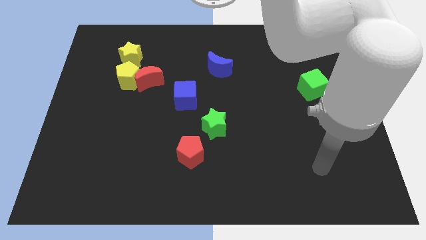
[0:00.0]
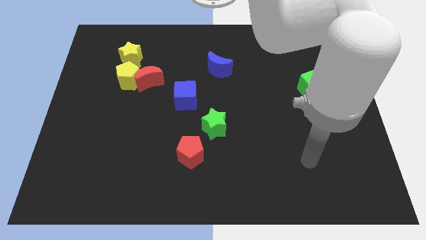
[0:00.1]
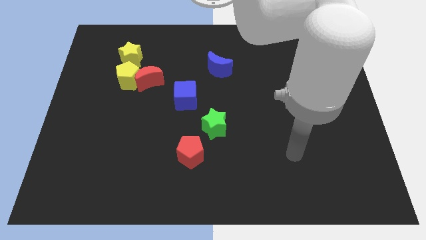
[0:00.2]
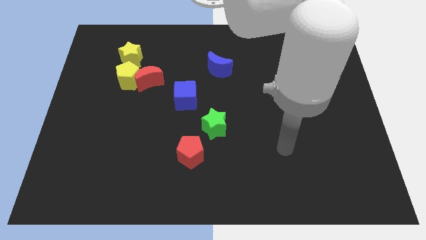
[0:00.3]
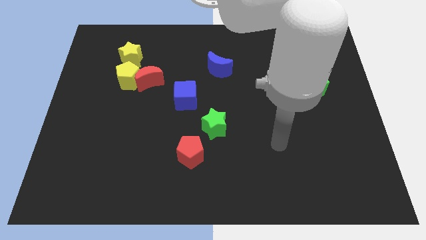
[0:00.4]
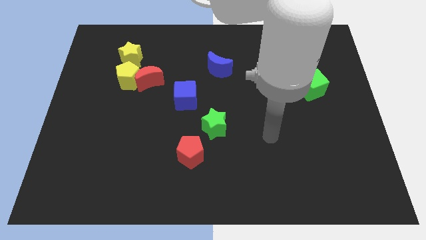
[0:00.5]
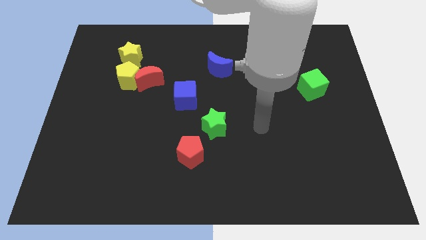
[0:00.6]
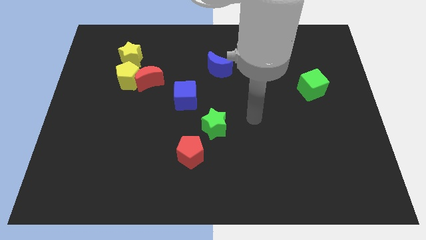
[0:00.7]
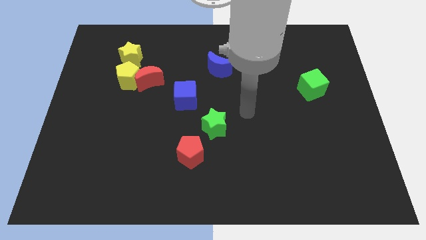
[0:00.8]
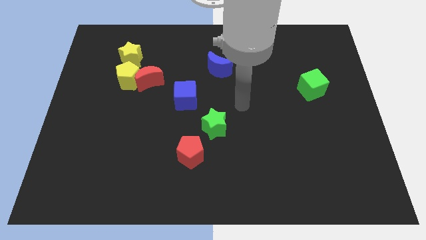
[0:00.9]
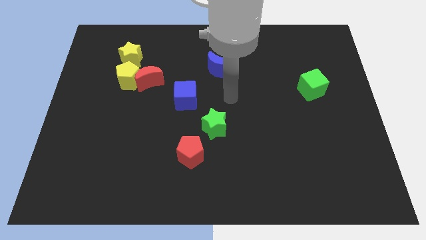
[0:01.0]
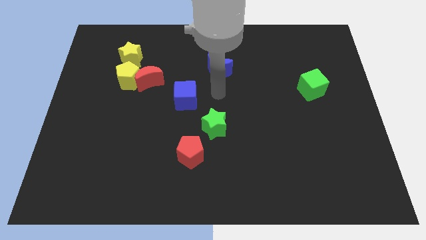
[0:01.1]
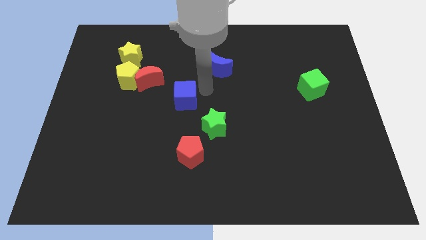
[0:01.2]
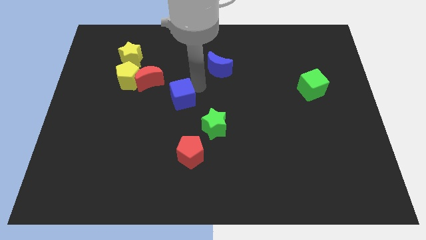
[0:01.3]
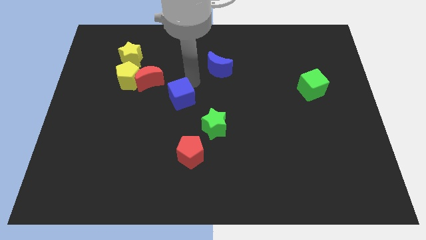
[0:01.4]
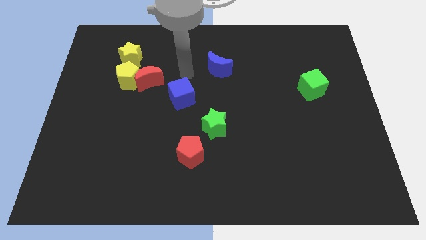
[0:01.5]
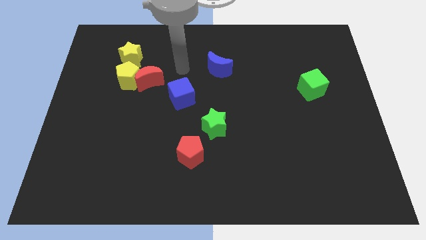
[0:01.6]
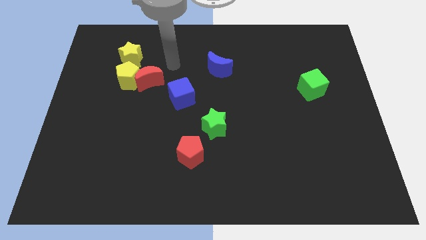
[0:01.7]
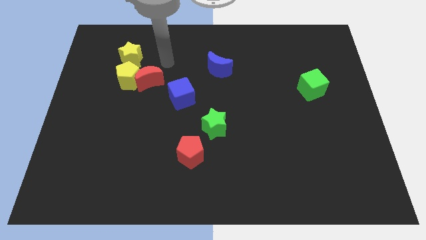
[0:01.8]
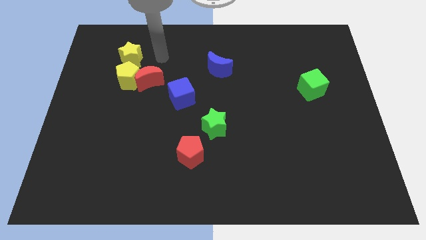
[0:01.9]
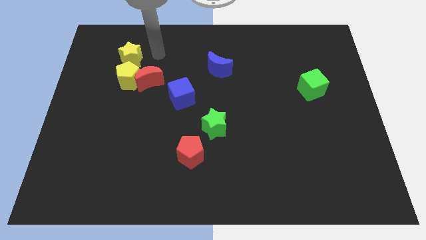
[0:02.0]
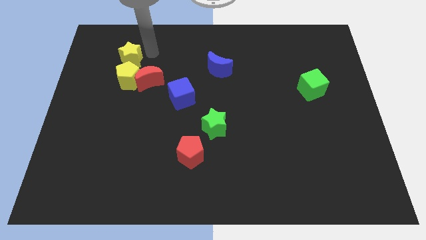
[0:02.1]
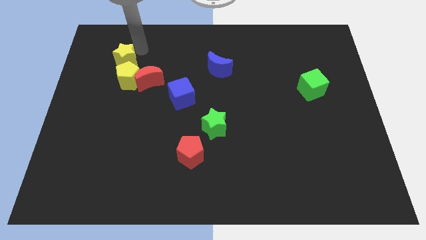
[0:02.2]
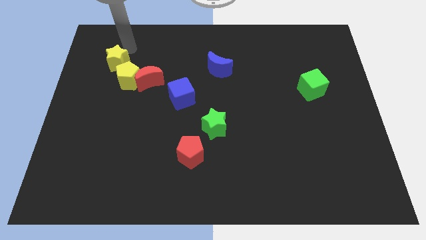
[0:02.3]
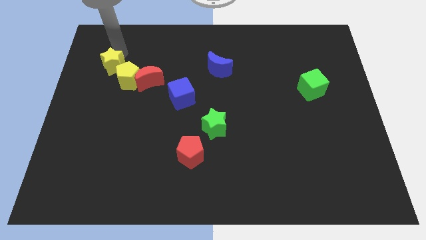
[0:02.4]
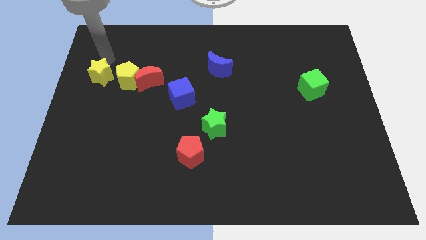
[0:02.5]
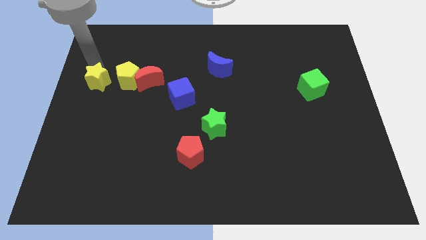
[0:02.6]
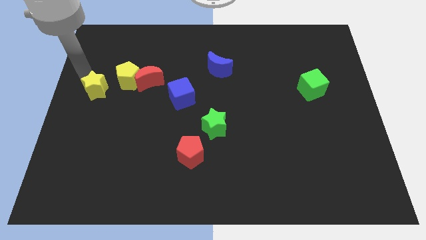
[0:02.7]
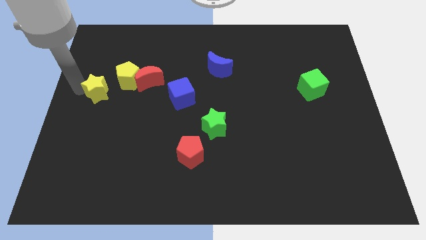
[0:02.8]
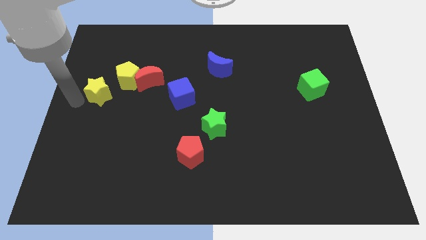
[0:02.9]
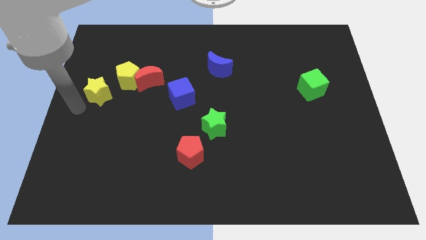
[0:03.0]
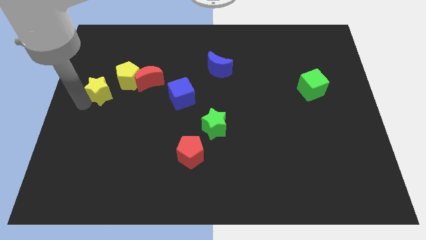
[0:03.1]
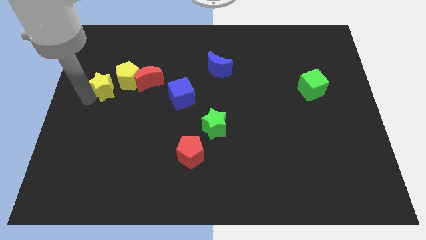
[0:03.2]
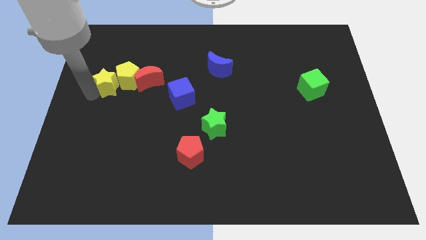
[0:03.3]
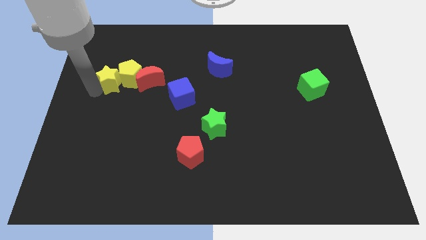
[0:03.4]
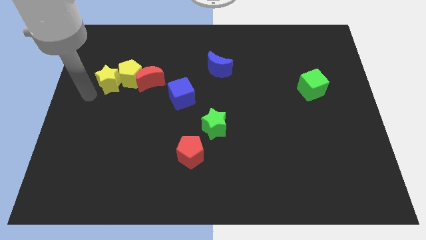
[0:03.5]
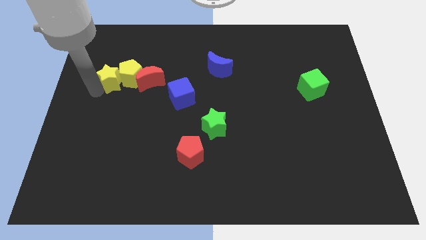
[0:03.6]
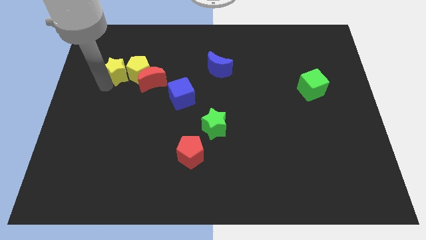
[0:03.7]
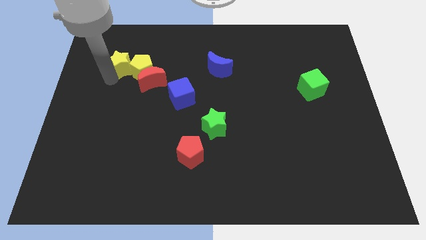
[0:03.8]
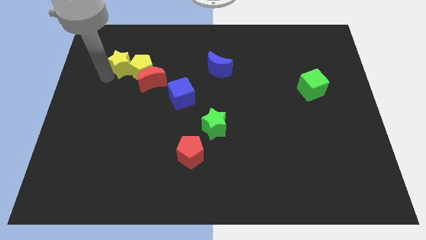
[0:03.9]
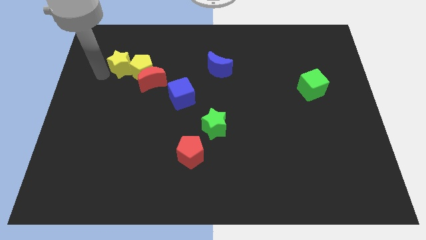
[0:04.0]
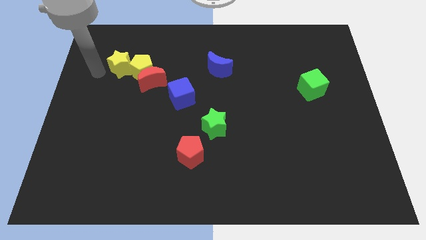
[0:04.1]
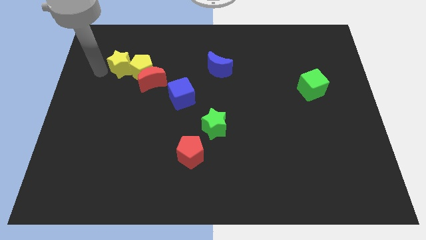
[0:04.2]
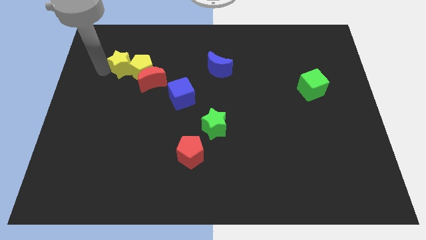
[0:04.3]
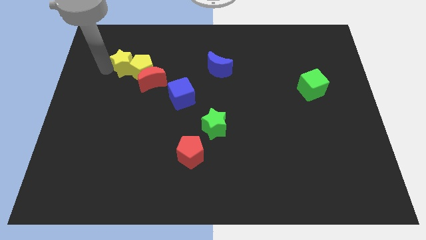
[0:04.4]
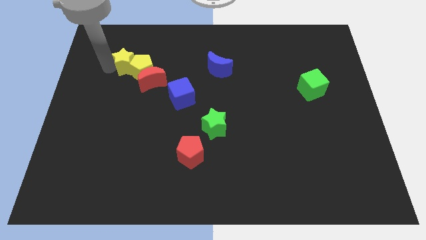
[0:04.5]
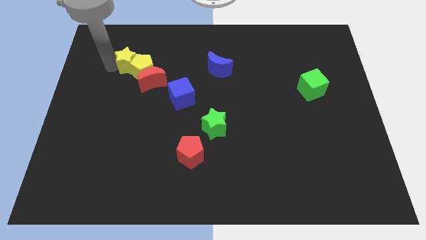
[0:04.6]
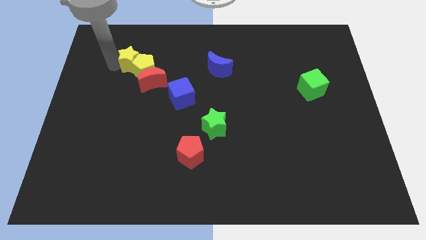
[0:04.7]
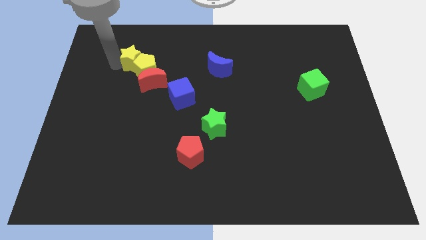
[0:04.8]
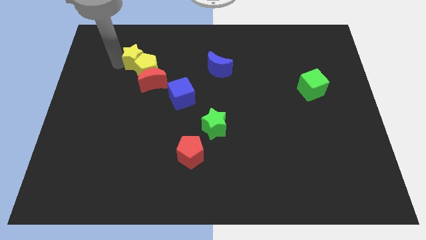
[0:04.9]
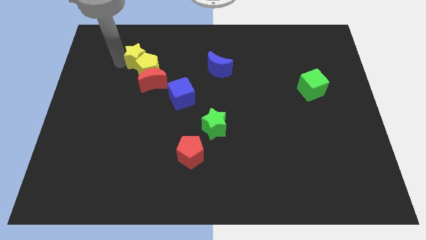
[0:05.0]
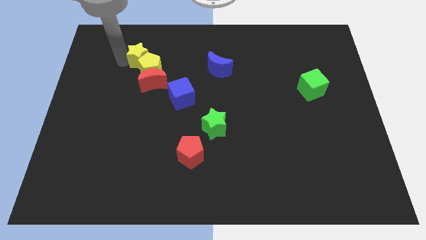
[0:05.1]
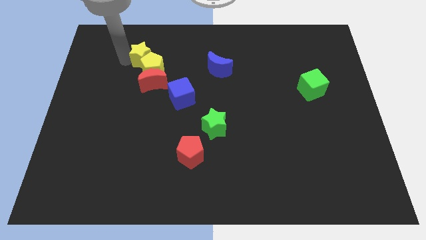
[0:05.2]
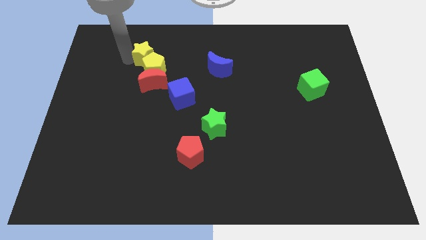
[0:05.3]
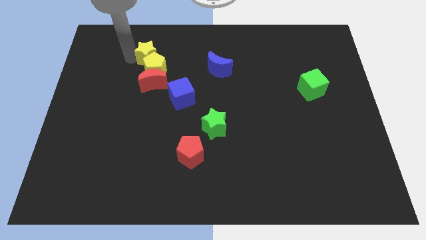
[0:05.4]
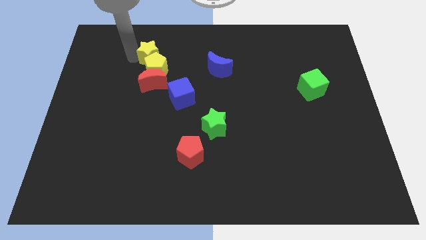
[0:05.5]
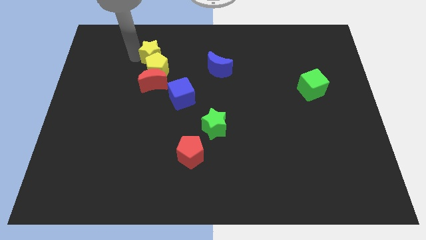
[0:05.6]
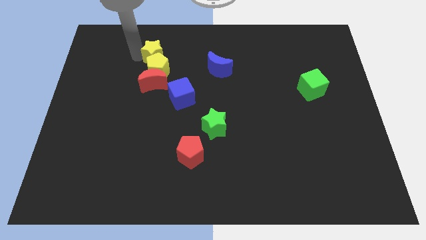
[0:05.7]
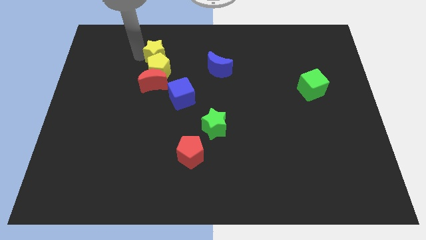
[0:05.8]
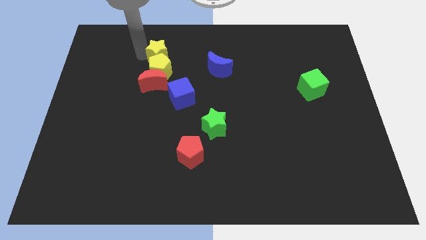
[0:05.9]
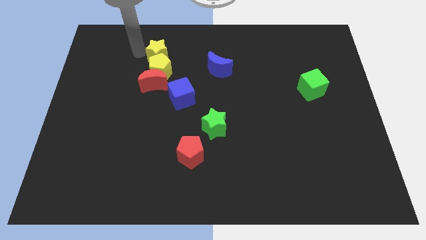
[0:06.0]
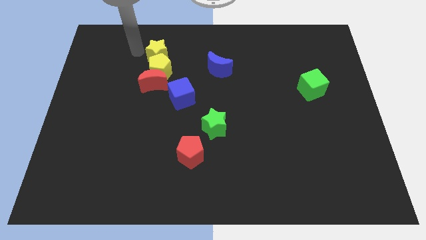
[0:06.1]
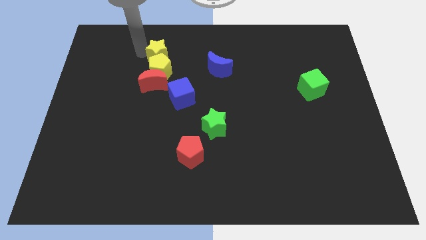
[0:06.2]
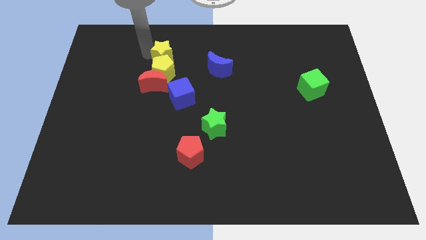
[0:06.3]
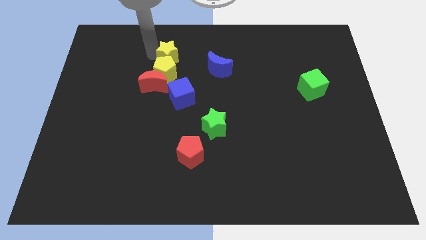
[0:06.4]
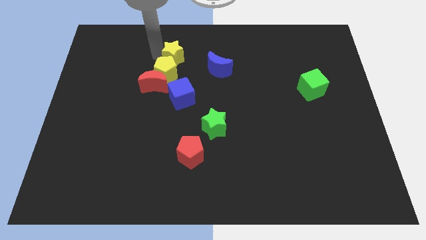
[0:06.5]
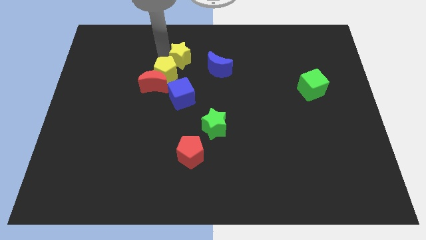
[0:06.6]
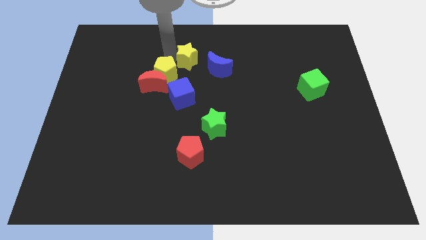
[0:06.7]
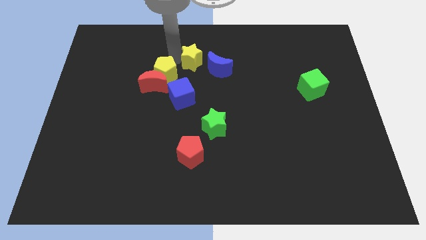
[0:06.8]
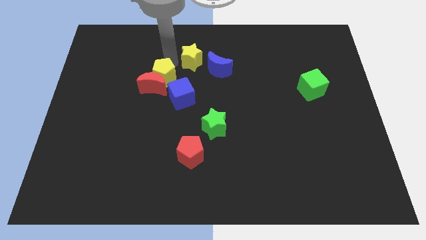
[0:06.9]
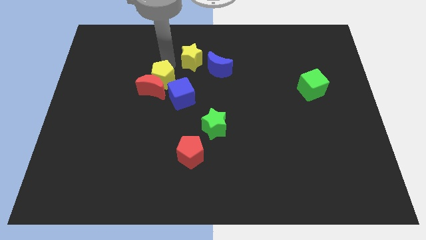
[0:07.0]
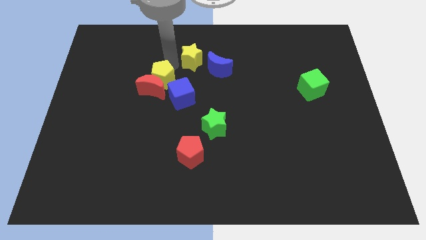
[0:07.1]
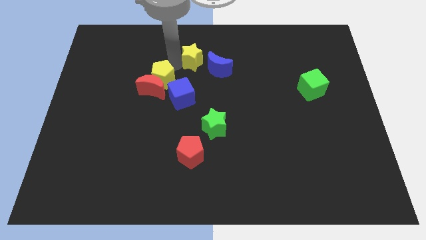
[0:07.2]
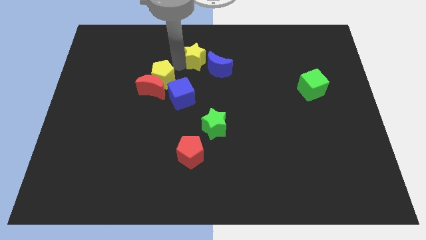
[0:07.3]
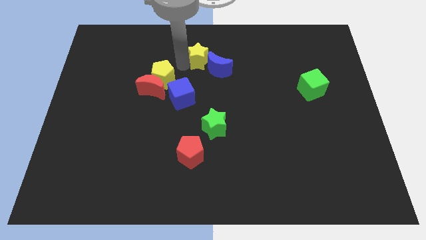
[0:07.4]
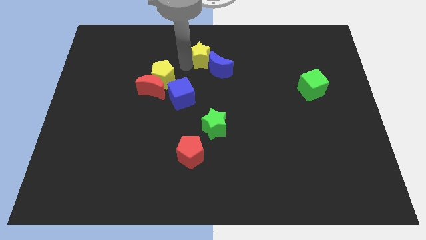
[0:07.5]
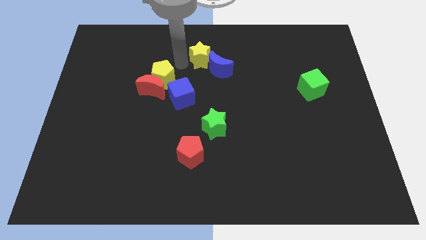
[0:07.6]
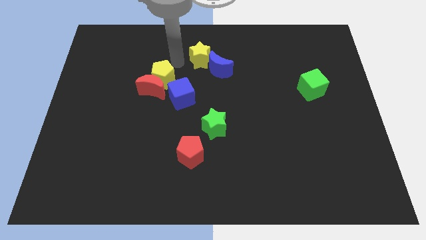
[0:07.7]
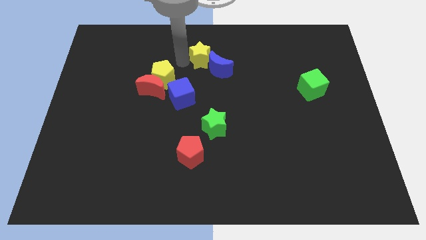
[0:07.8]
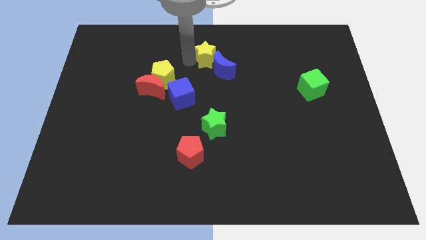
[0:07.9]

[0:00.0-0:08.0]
move the yellow star right

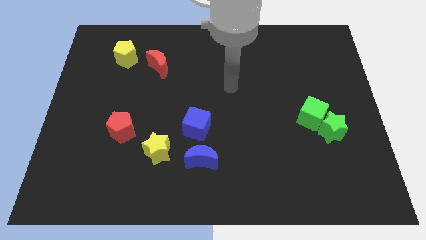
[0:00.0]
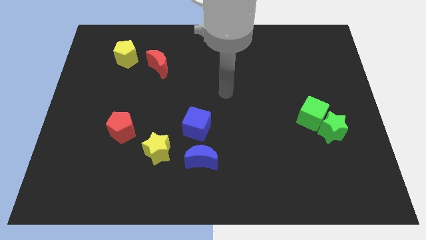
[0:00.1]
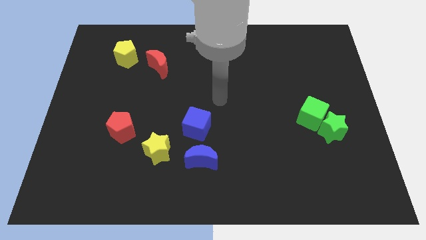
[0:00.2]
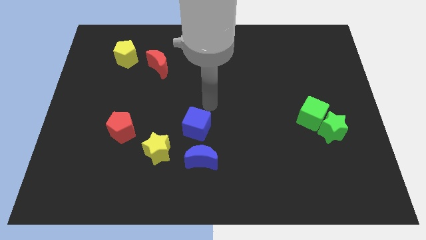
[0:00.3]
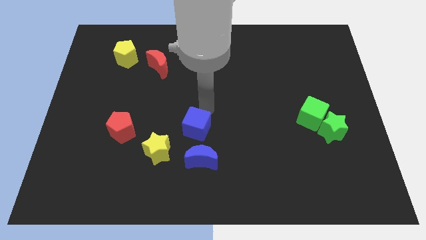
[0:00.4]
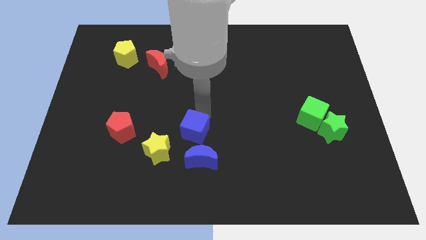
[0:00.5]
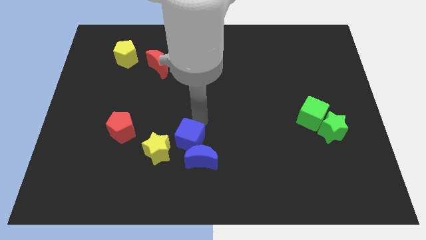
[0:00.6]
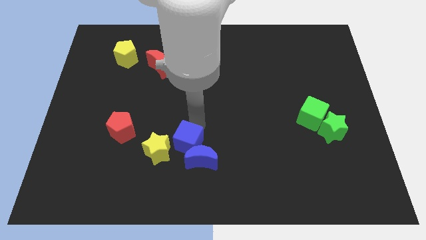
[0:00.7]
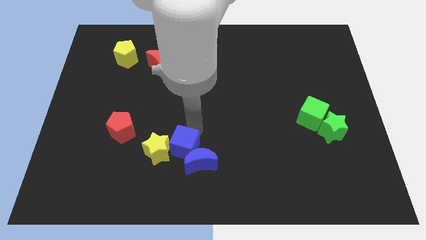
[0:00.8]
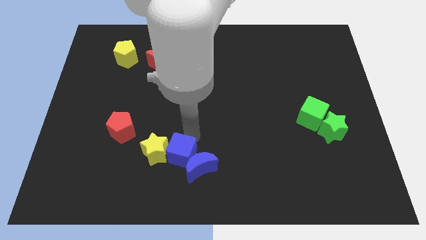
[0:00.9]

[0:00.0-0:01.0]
slide the blue cube downwards and left diagonally slightly
